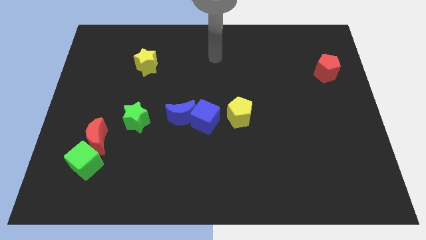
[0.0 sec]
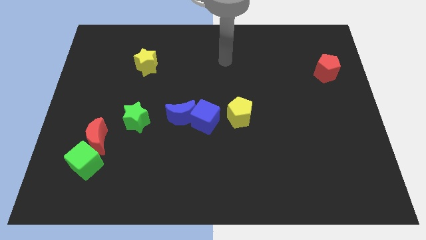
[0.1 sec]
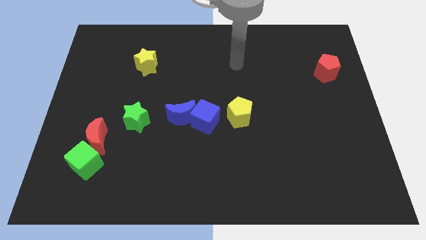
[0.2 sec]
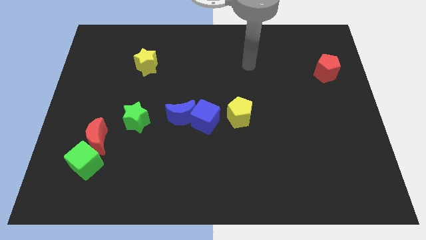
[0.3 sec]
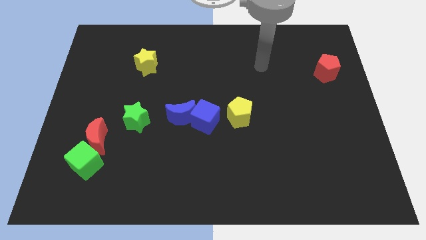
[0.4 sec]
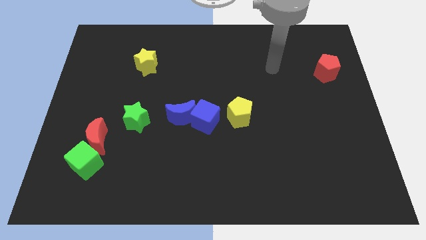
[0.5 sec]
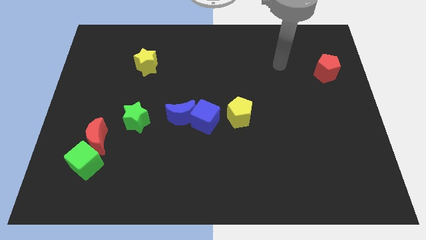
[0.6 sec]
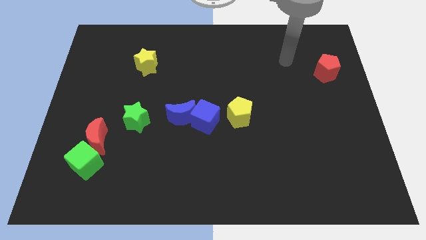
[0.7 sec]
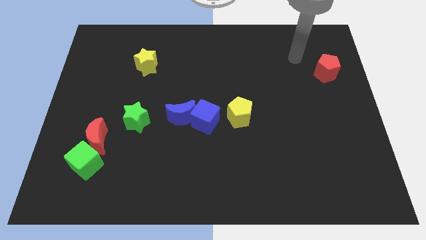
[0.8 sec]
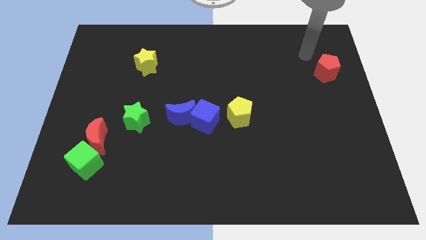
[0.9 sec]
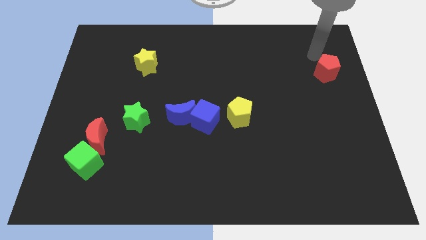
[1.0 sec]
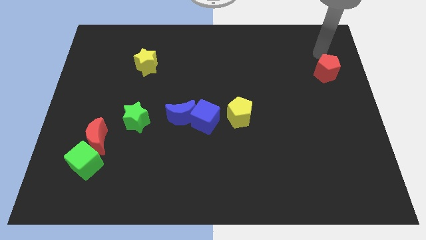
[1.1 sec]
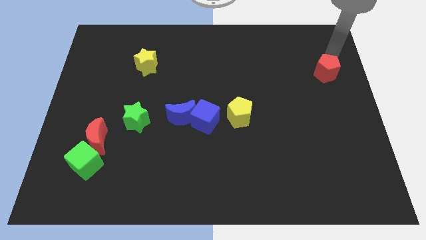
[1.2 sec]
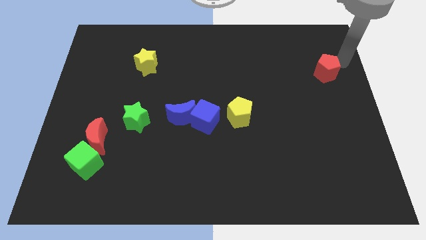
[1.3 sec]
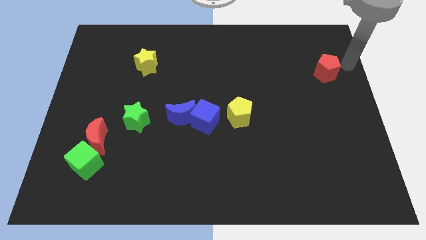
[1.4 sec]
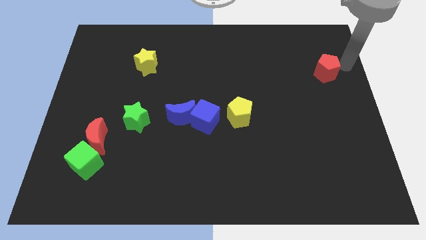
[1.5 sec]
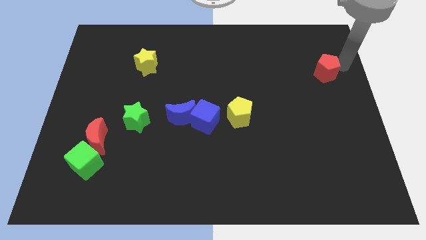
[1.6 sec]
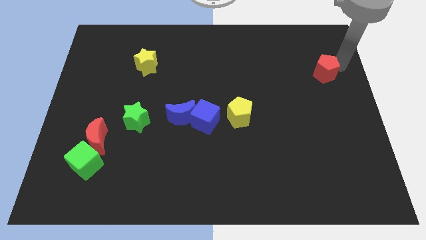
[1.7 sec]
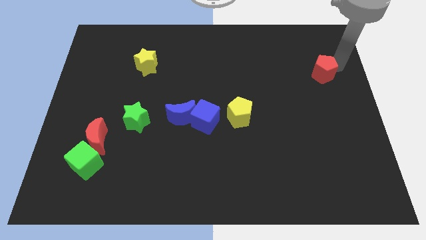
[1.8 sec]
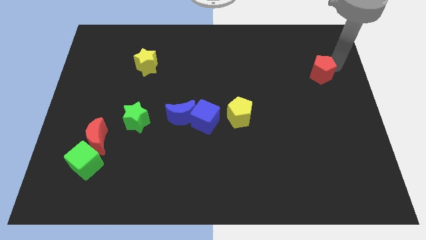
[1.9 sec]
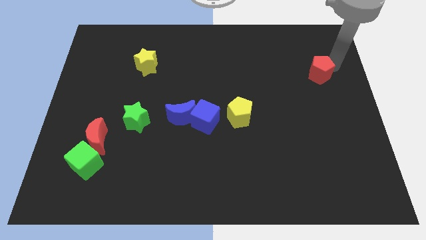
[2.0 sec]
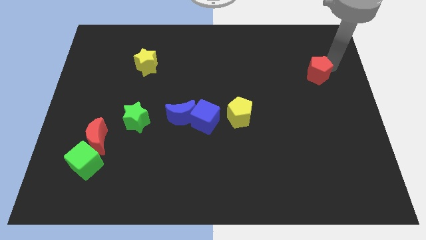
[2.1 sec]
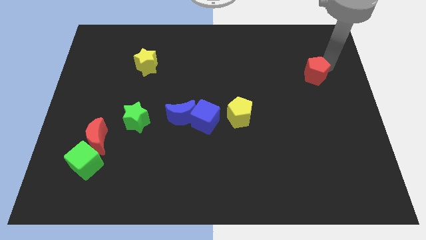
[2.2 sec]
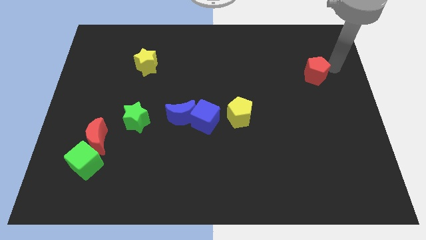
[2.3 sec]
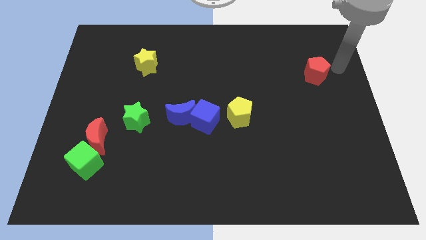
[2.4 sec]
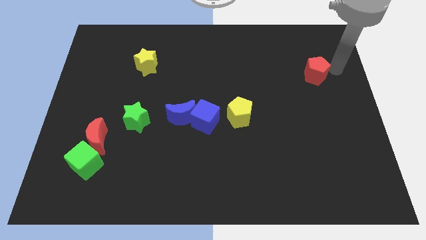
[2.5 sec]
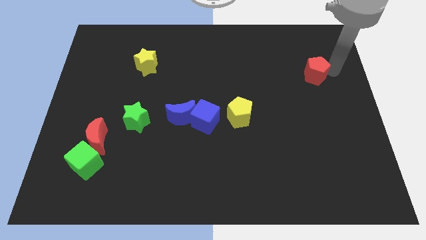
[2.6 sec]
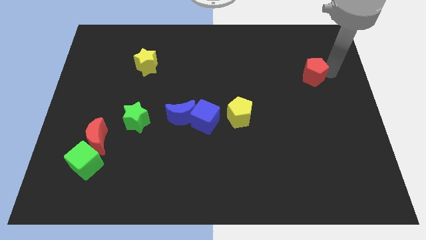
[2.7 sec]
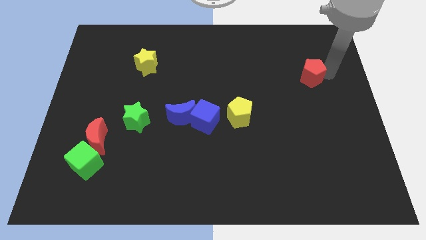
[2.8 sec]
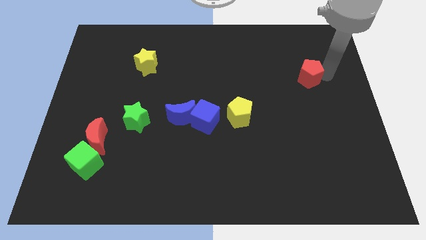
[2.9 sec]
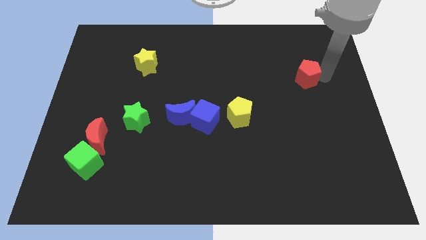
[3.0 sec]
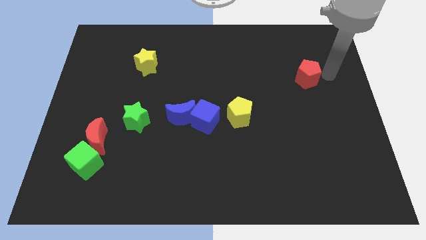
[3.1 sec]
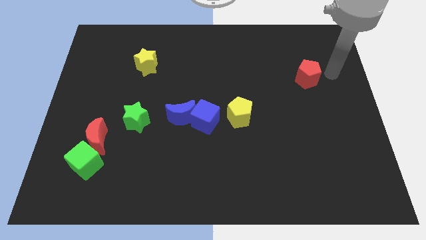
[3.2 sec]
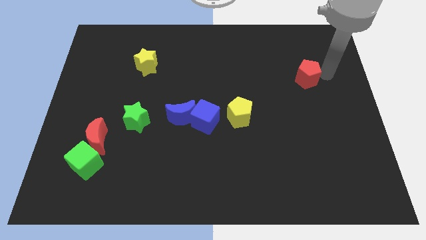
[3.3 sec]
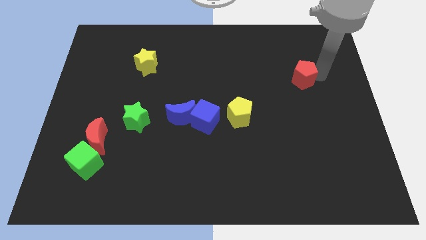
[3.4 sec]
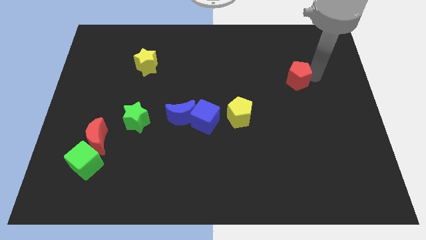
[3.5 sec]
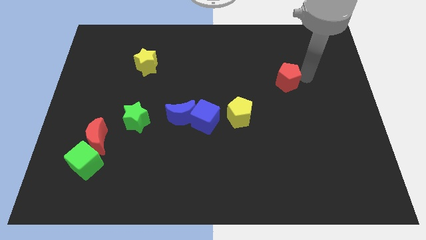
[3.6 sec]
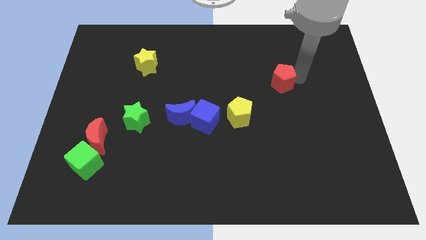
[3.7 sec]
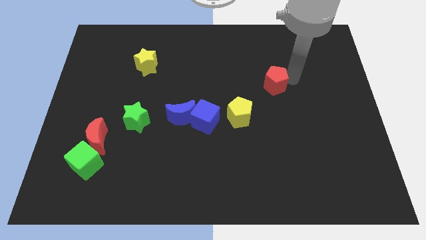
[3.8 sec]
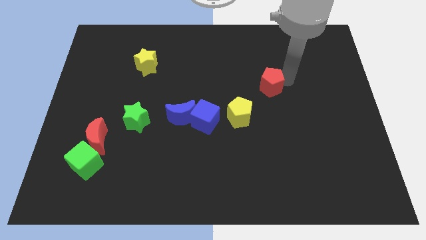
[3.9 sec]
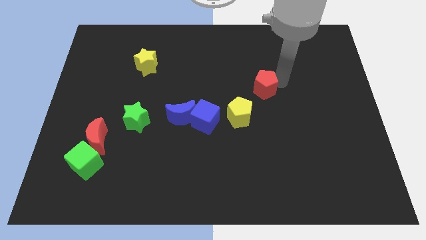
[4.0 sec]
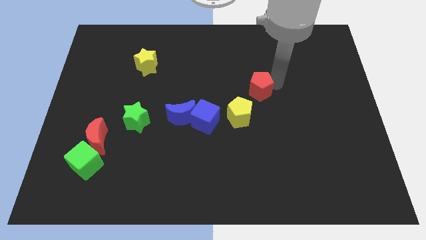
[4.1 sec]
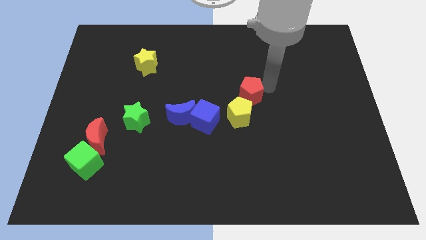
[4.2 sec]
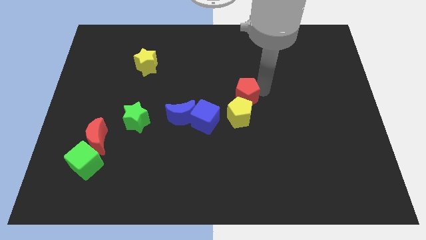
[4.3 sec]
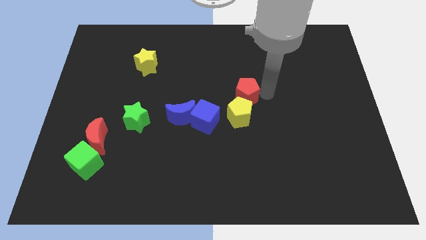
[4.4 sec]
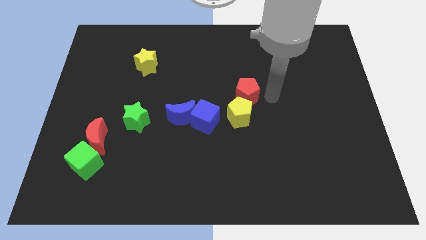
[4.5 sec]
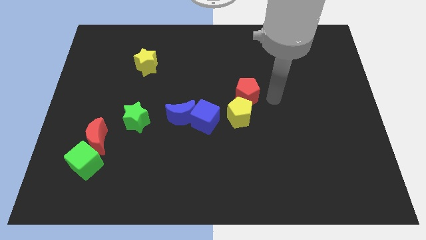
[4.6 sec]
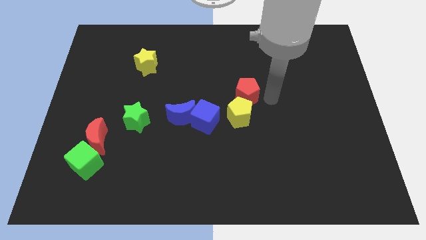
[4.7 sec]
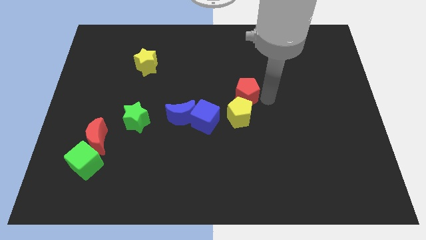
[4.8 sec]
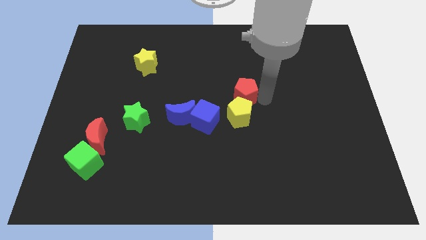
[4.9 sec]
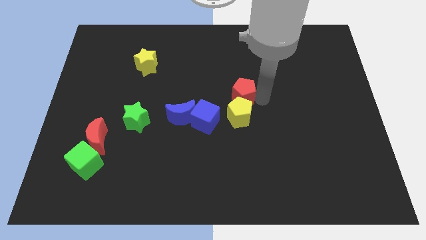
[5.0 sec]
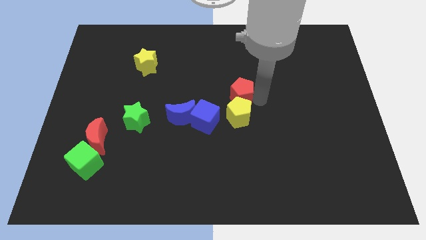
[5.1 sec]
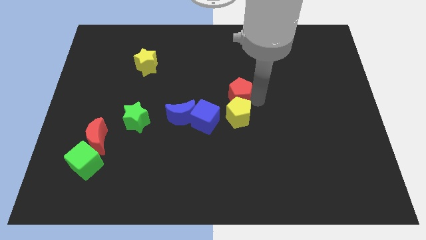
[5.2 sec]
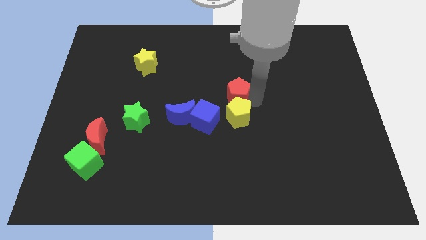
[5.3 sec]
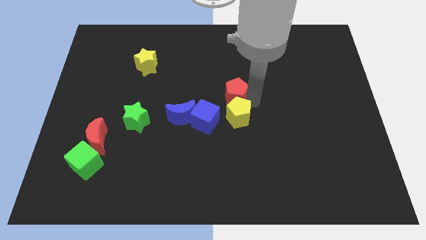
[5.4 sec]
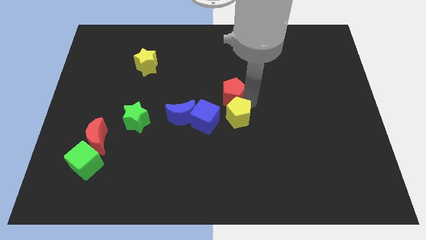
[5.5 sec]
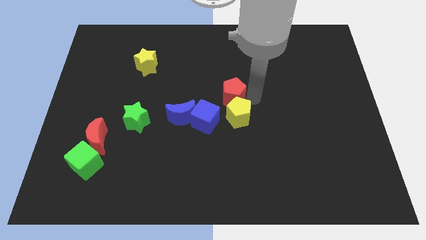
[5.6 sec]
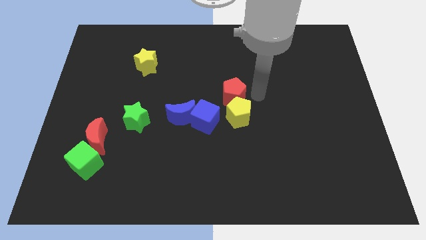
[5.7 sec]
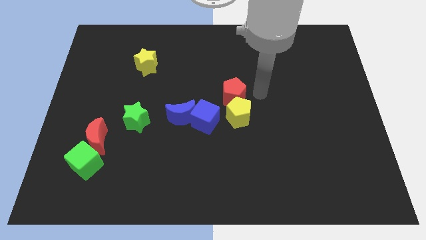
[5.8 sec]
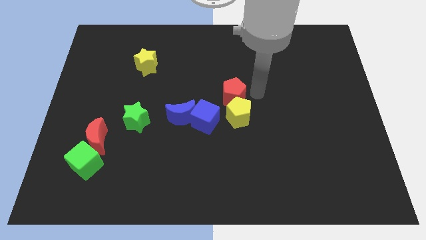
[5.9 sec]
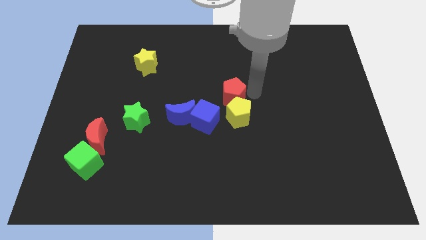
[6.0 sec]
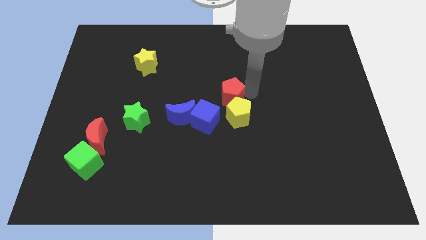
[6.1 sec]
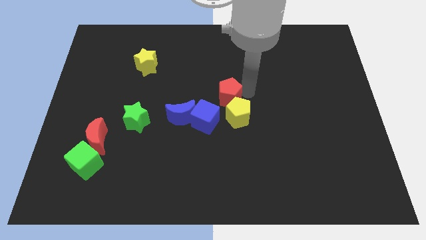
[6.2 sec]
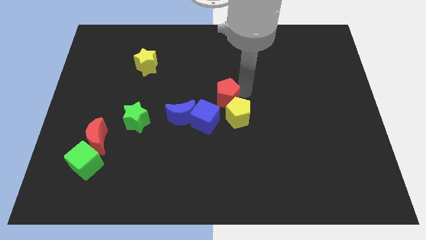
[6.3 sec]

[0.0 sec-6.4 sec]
put the red pentagon to the top right side of the blue moon
